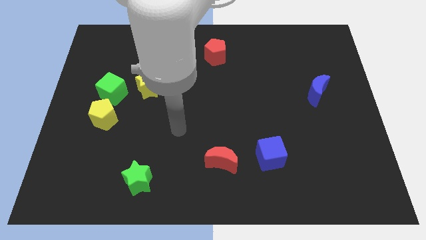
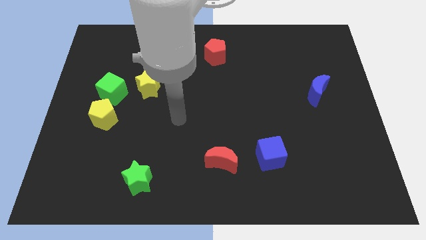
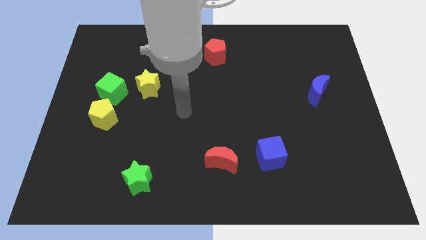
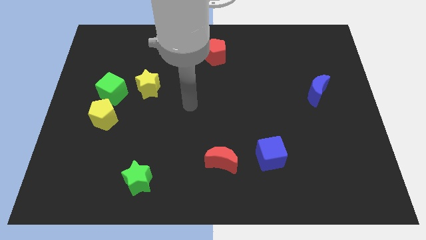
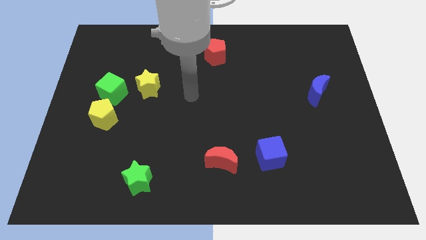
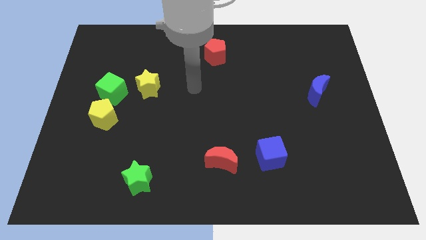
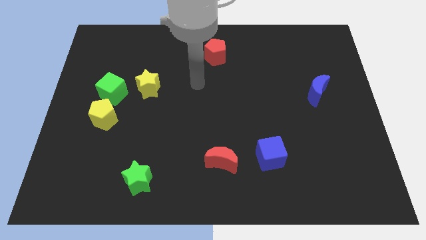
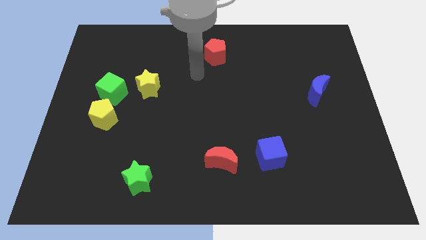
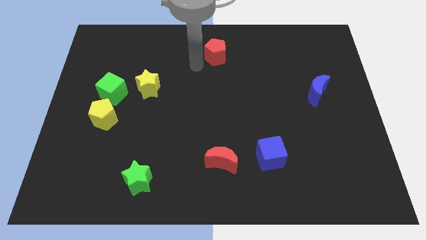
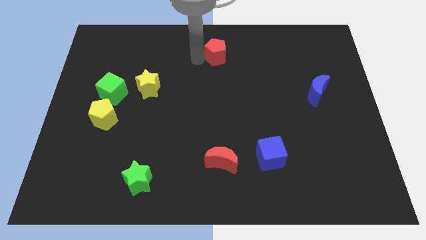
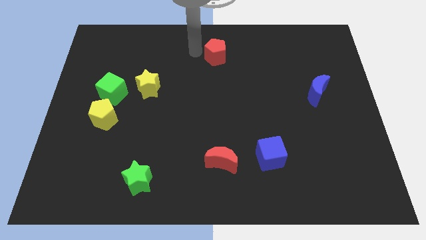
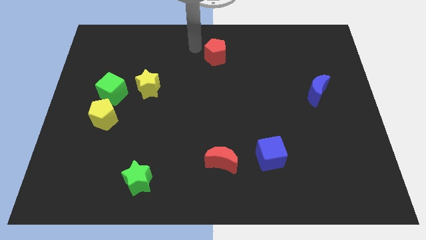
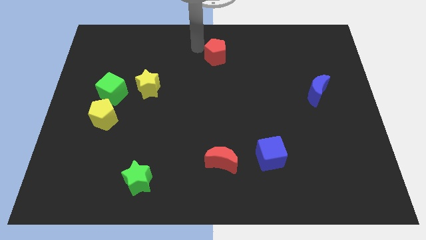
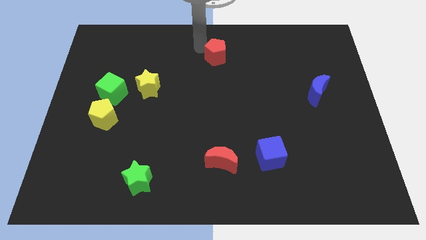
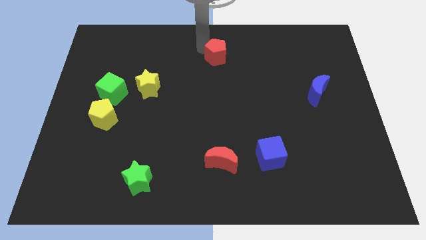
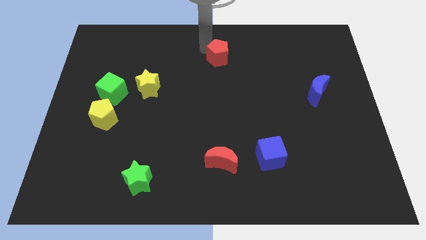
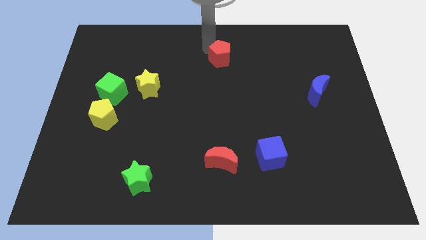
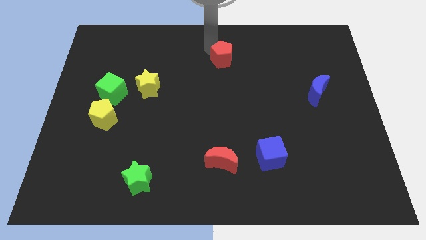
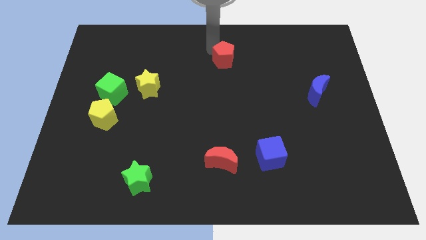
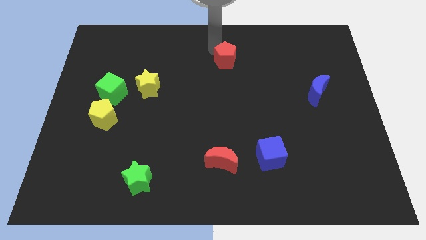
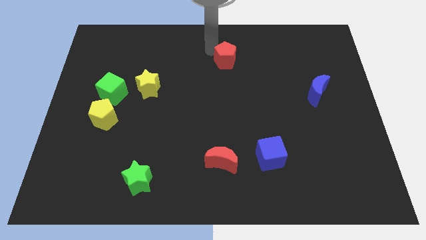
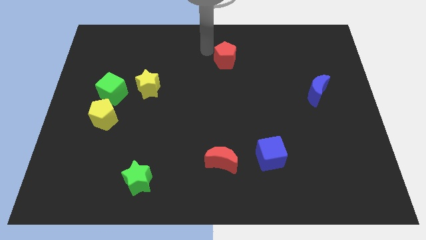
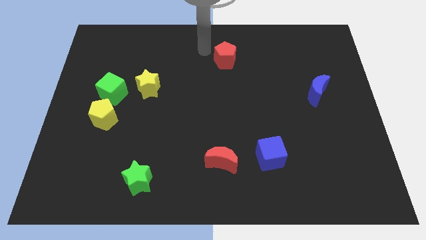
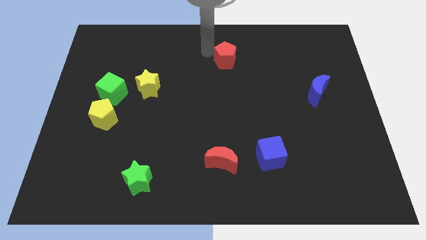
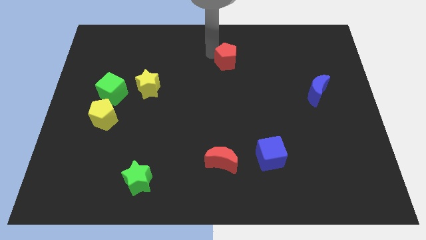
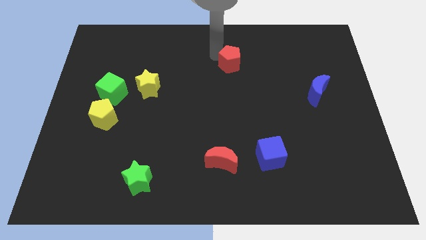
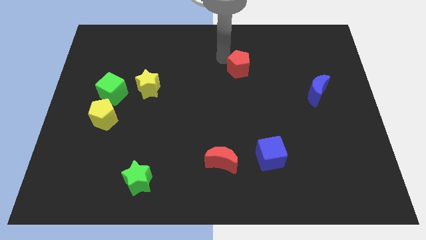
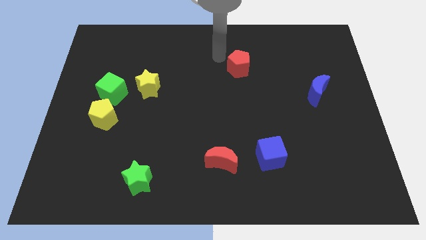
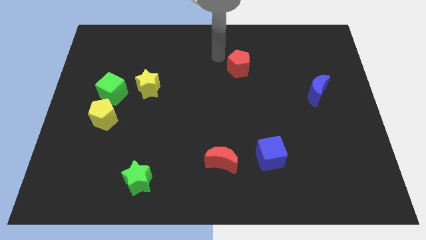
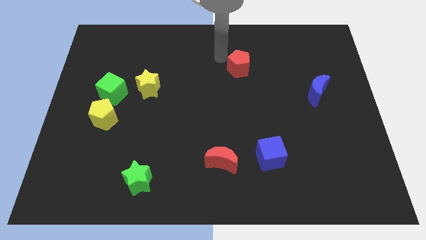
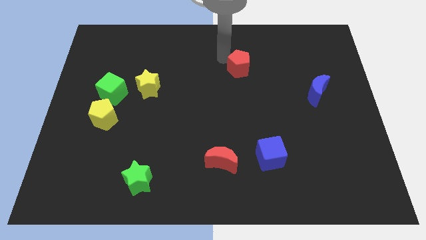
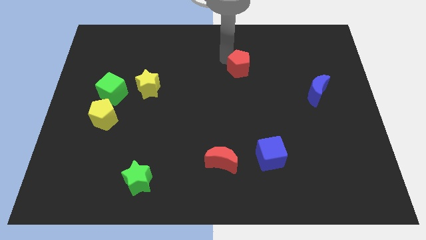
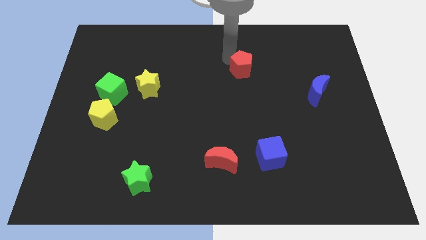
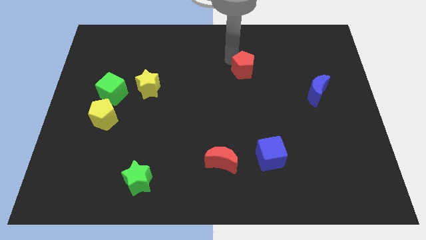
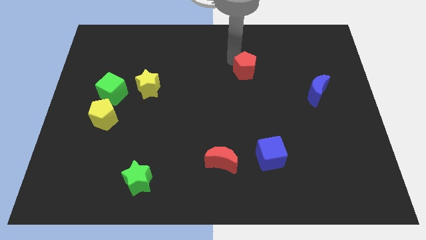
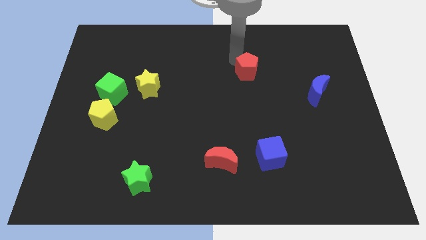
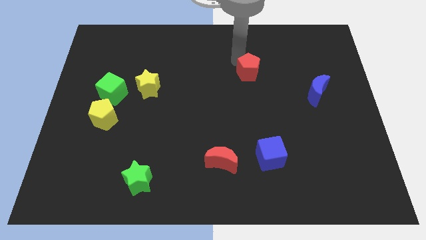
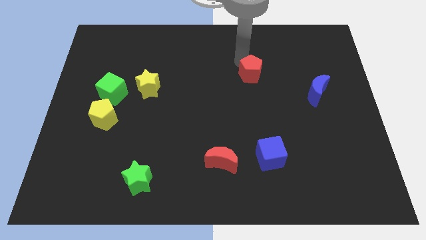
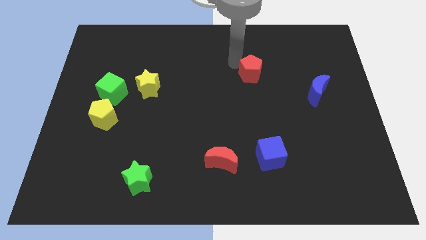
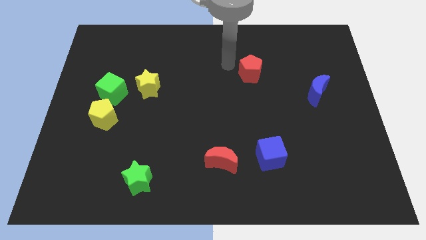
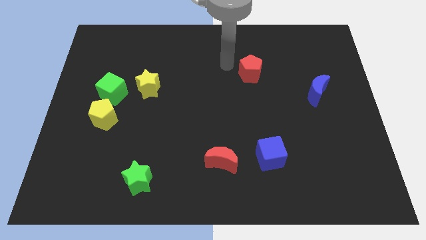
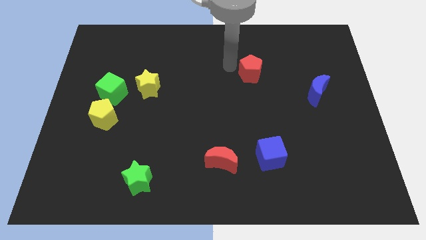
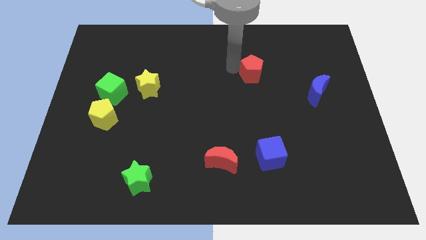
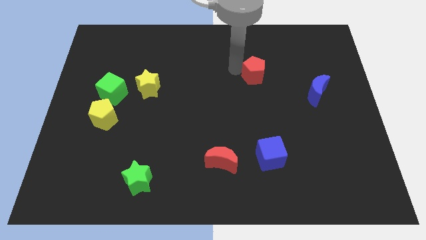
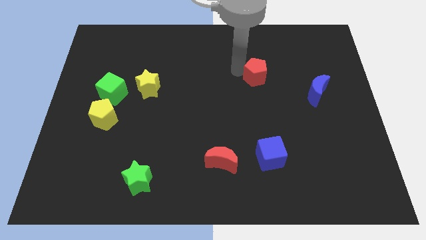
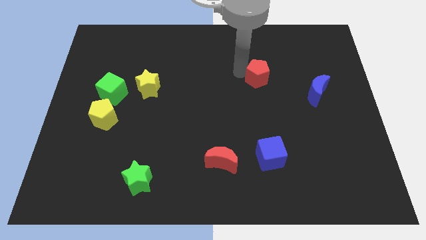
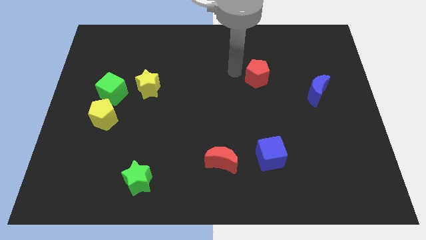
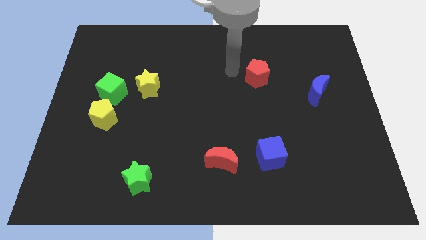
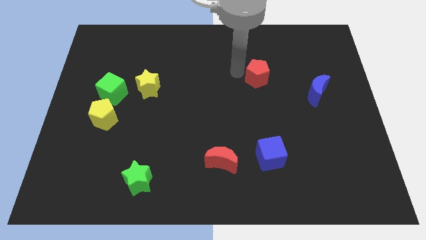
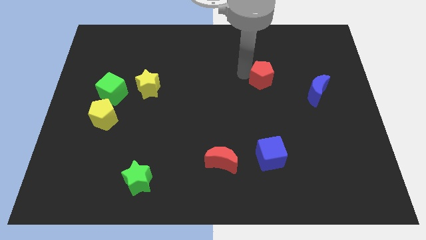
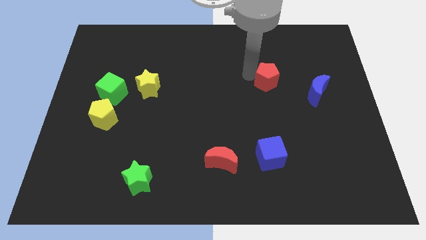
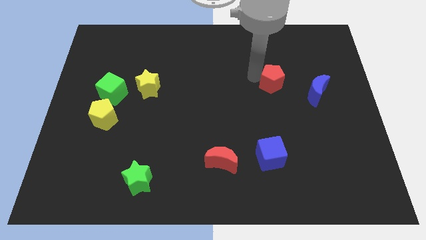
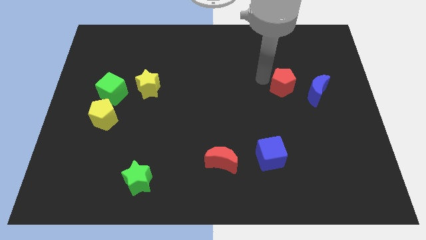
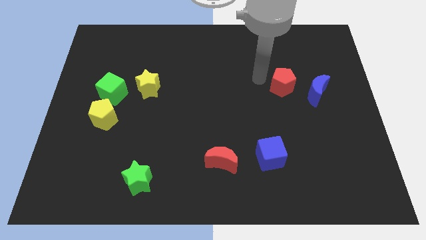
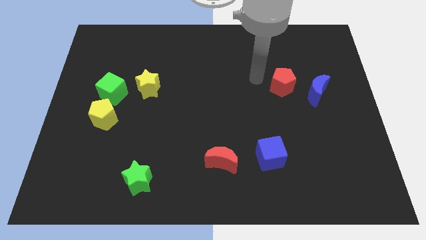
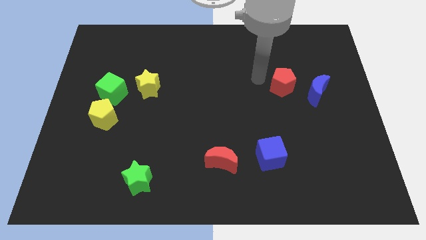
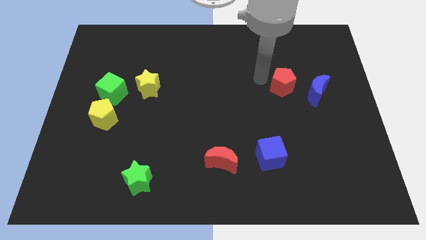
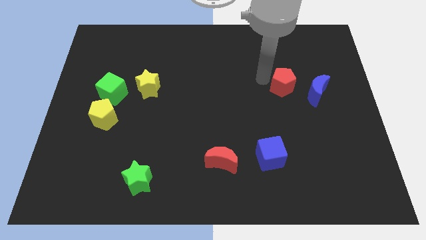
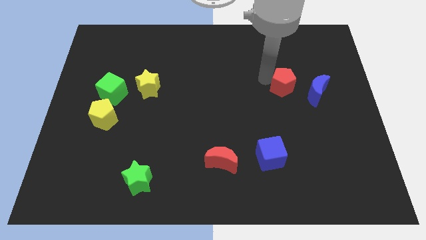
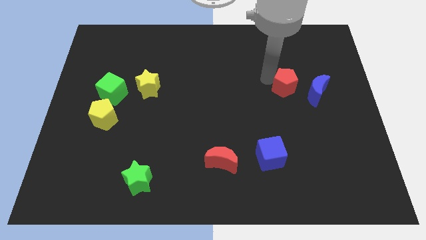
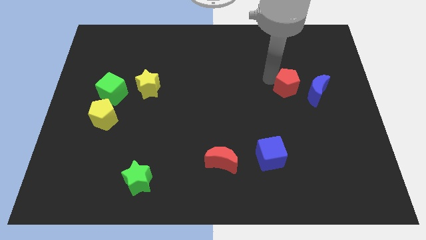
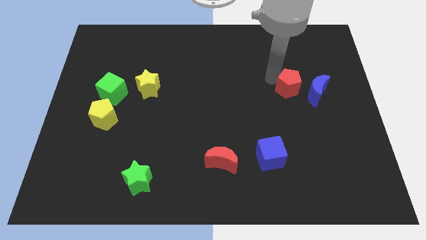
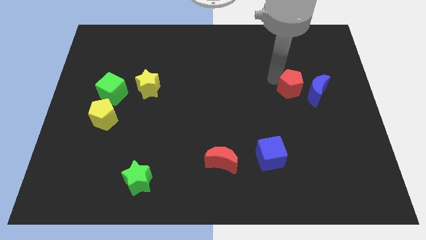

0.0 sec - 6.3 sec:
push the red pentagon next to the blue moon

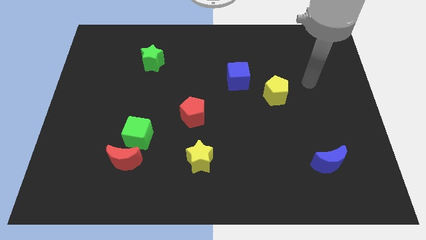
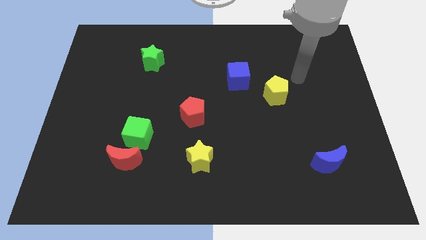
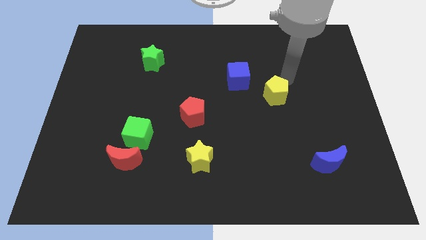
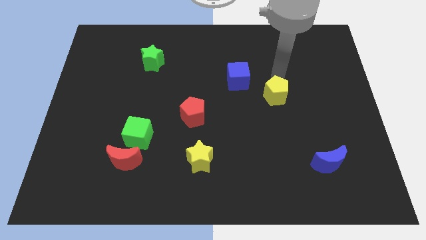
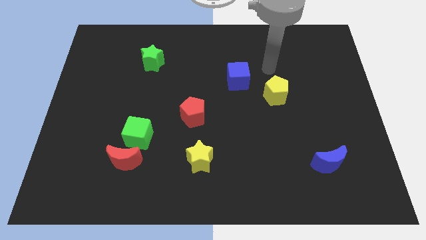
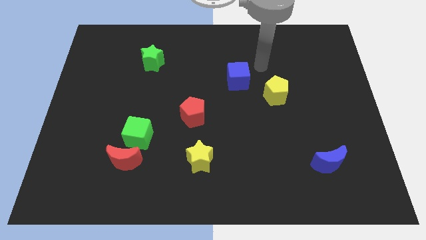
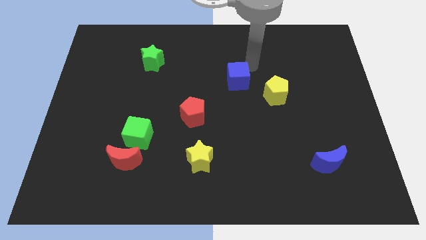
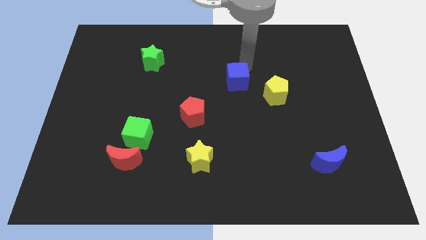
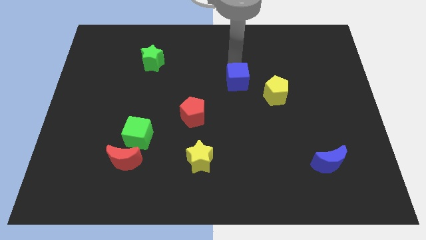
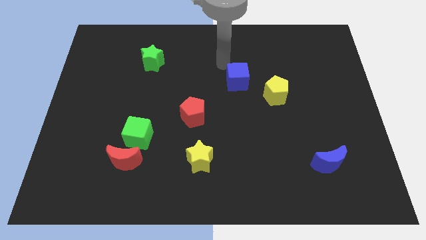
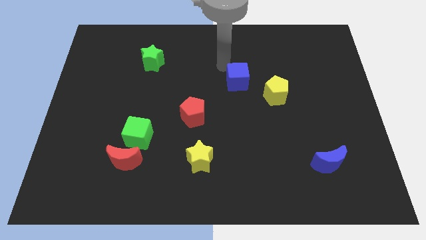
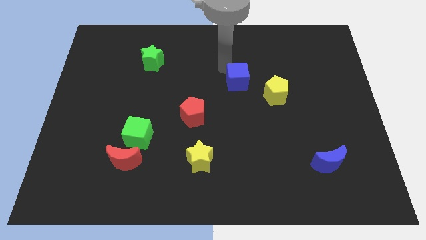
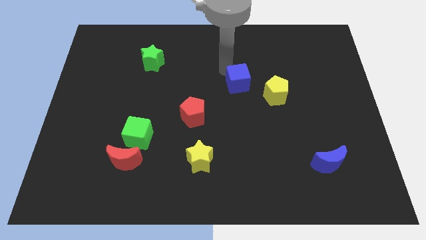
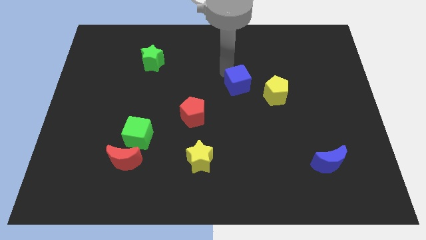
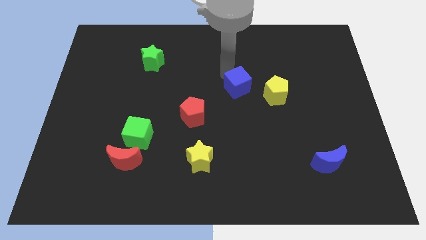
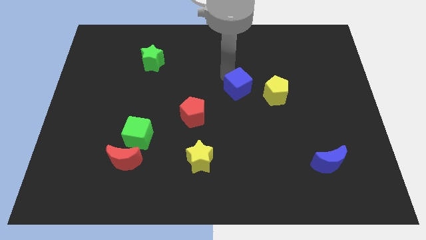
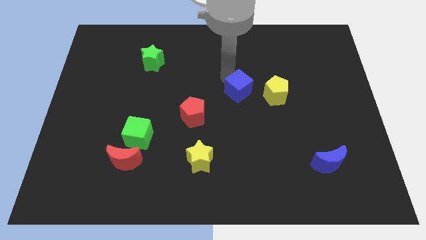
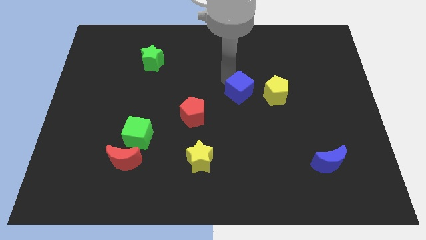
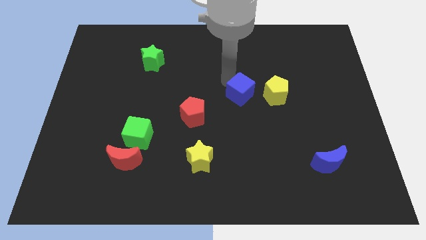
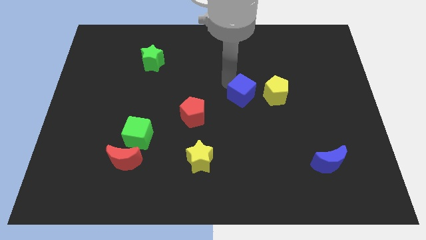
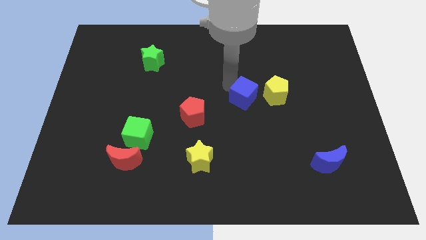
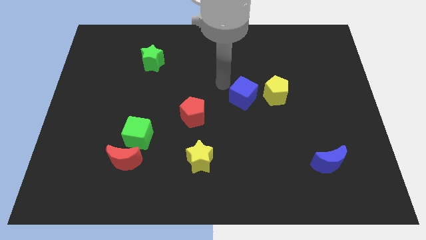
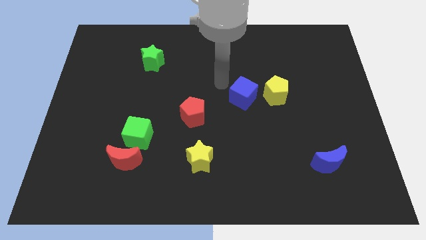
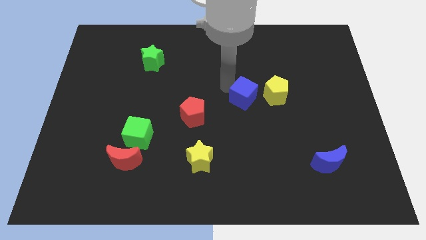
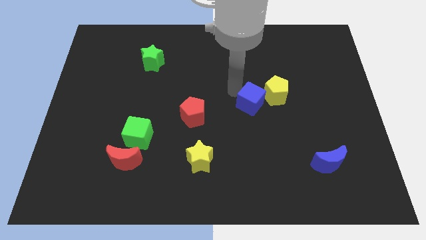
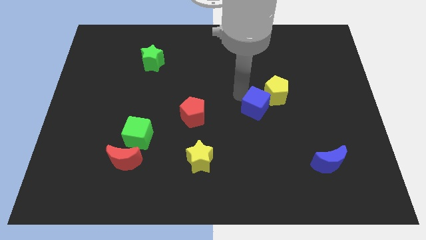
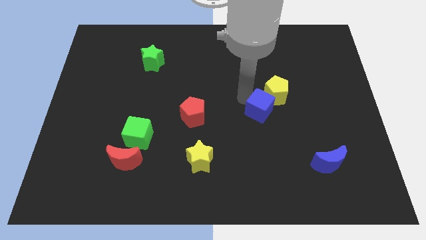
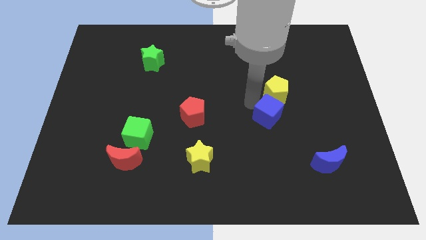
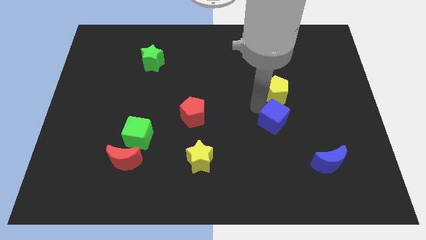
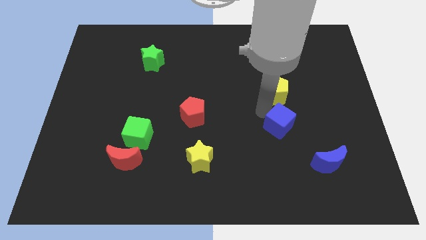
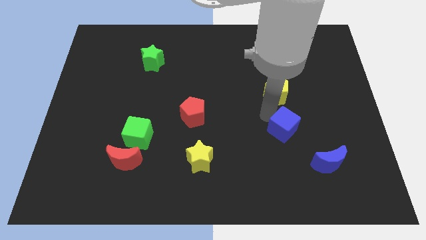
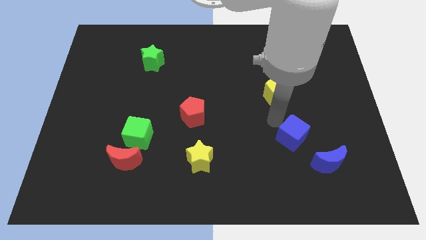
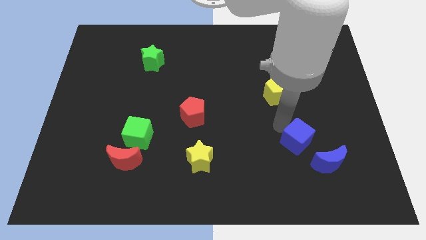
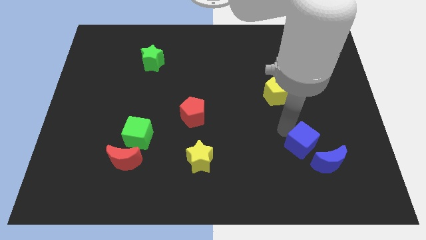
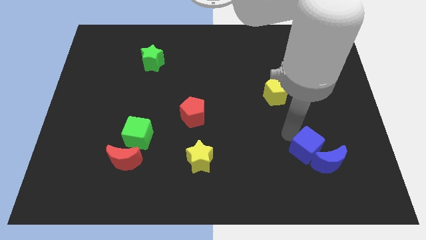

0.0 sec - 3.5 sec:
push the blue cube towards the blue moon
